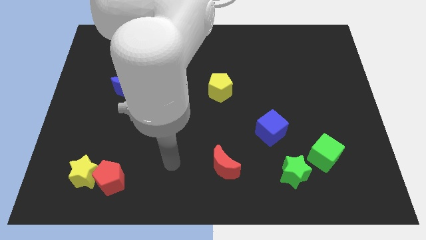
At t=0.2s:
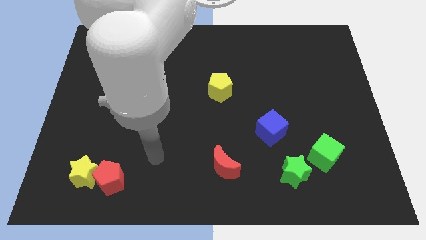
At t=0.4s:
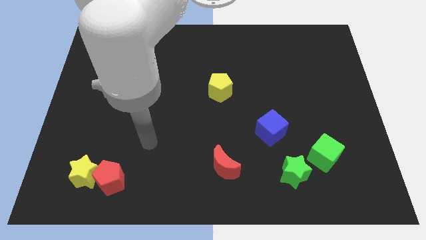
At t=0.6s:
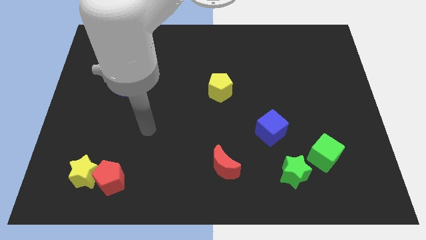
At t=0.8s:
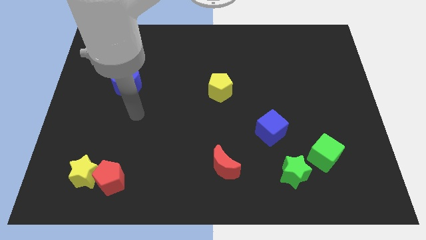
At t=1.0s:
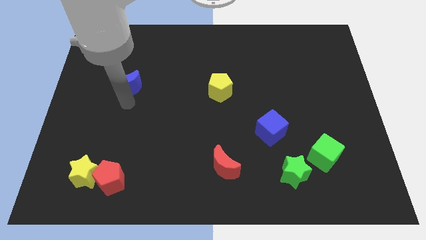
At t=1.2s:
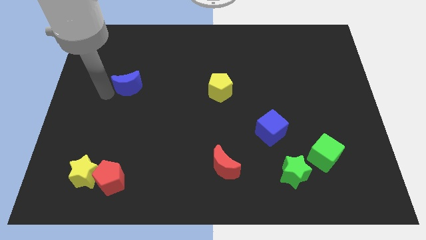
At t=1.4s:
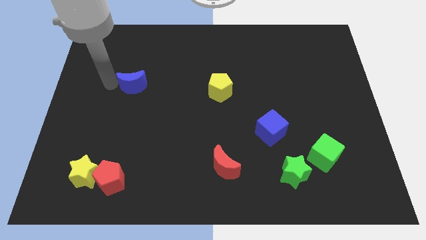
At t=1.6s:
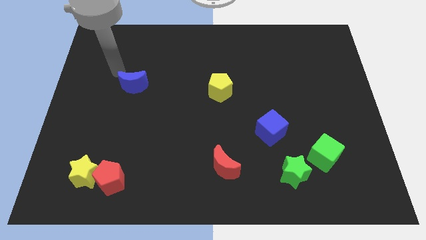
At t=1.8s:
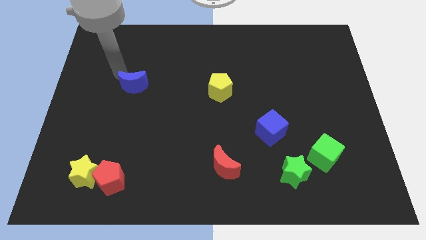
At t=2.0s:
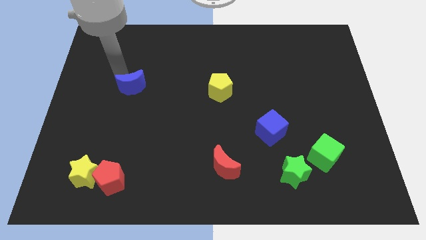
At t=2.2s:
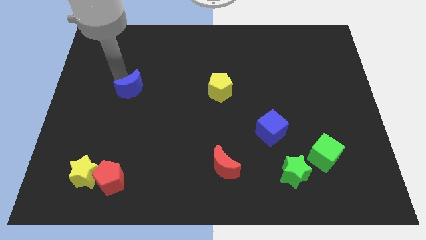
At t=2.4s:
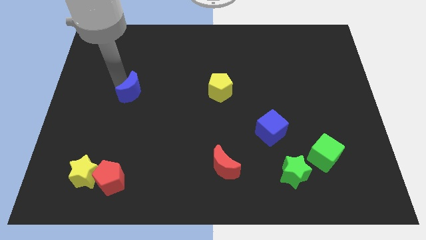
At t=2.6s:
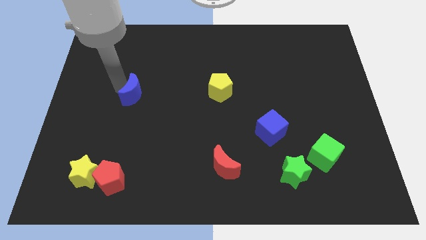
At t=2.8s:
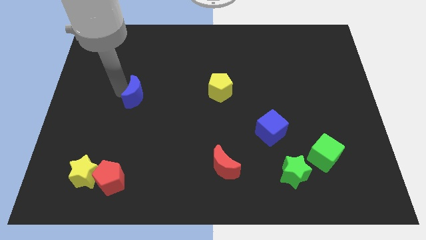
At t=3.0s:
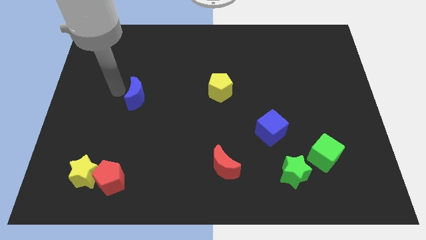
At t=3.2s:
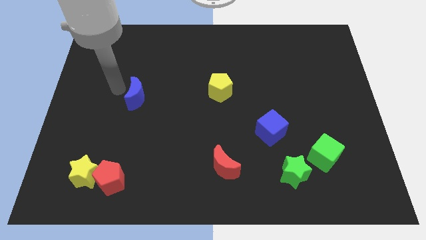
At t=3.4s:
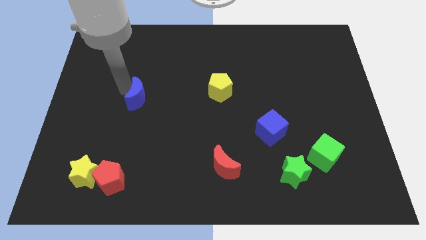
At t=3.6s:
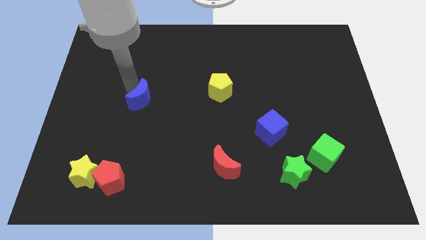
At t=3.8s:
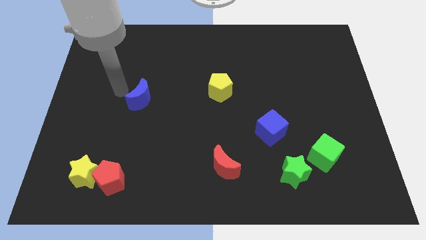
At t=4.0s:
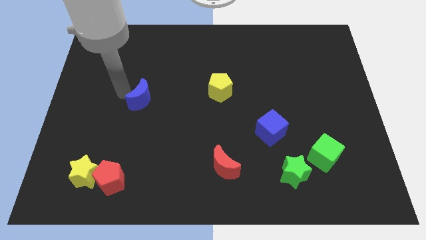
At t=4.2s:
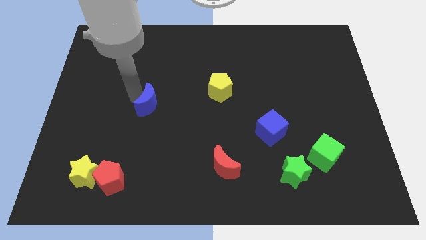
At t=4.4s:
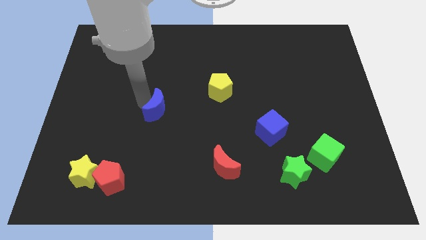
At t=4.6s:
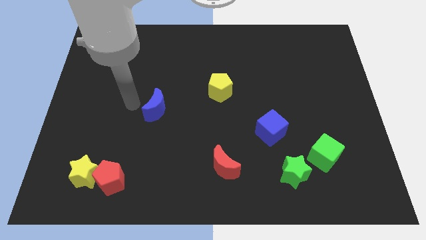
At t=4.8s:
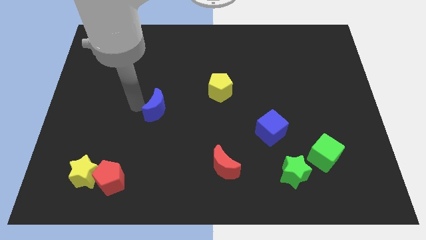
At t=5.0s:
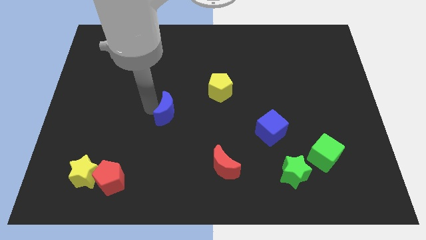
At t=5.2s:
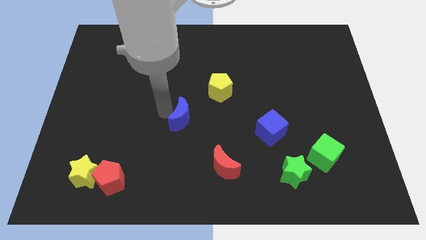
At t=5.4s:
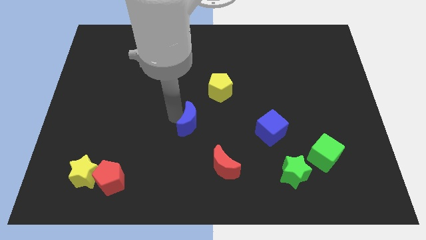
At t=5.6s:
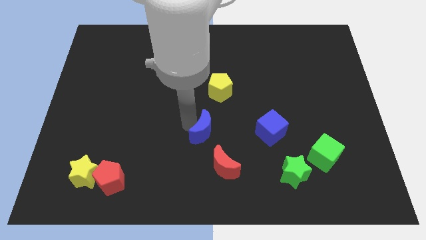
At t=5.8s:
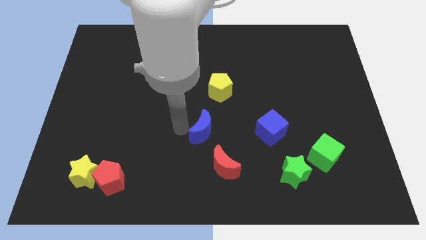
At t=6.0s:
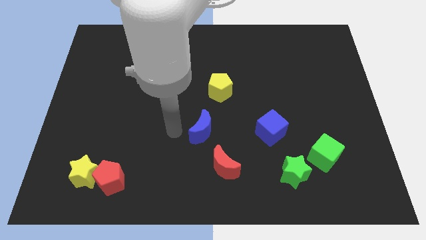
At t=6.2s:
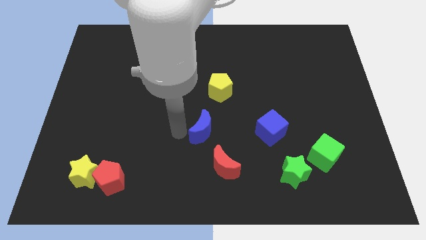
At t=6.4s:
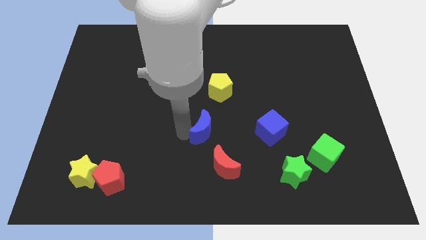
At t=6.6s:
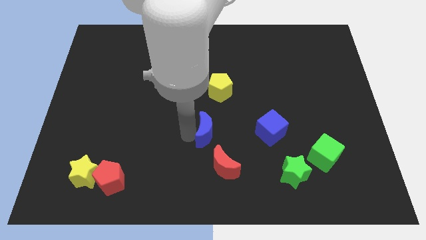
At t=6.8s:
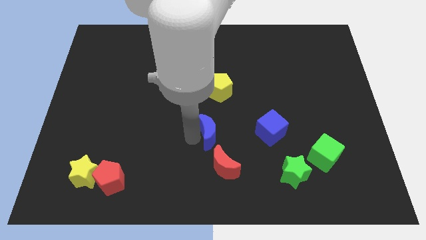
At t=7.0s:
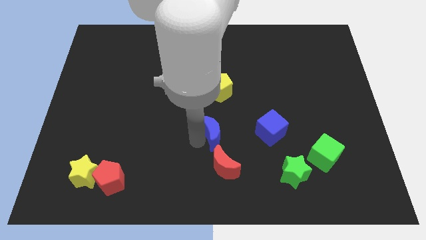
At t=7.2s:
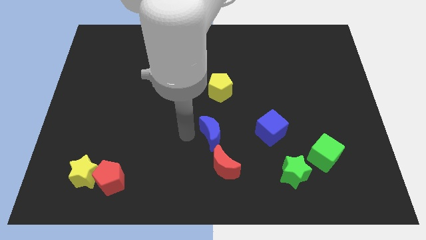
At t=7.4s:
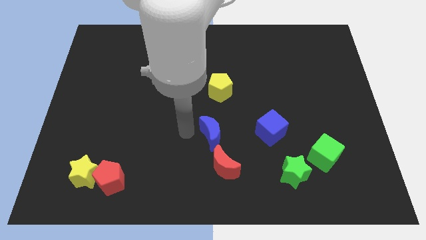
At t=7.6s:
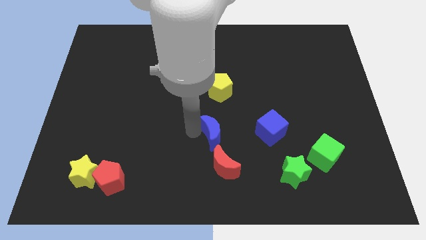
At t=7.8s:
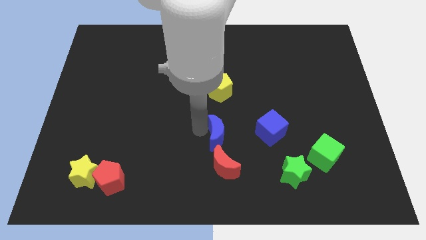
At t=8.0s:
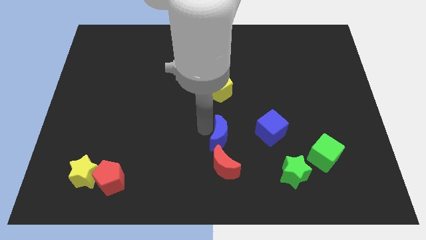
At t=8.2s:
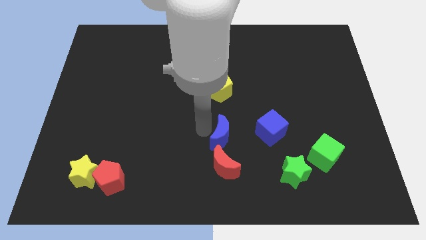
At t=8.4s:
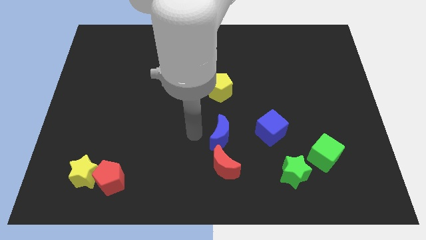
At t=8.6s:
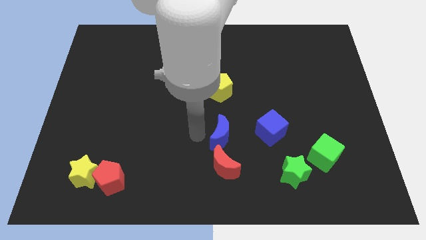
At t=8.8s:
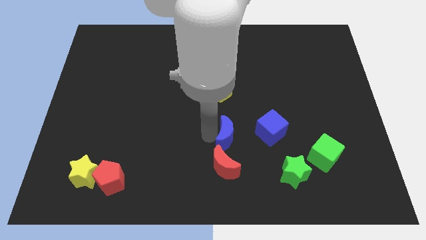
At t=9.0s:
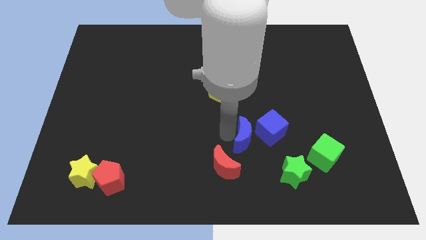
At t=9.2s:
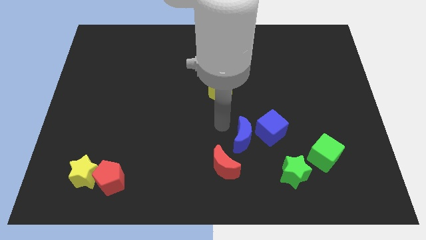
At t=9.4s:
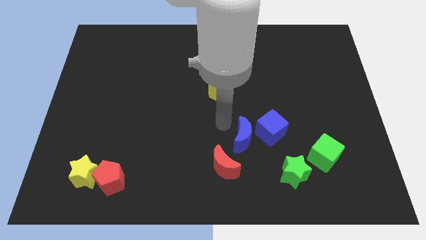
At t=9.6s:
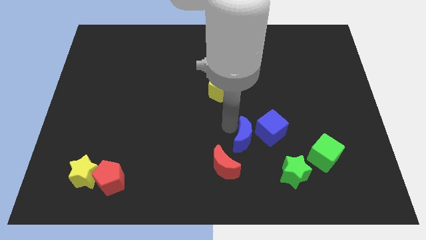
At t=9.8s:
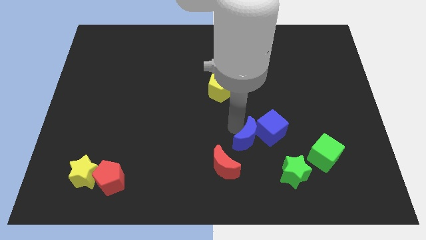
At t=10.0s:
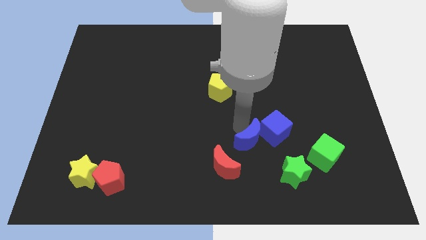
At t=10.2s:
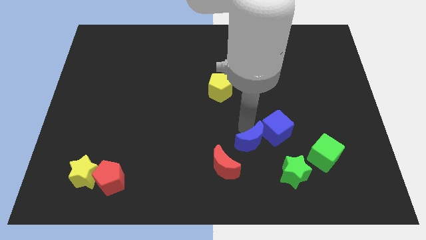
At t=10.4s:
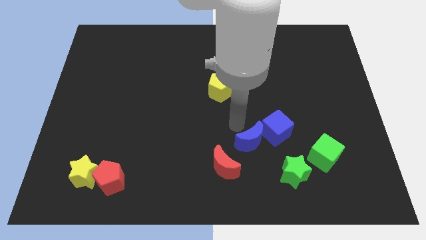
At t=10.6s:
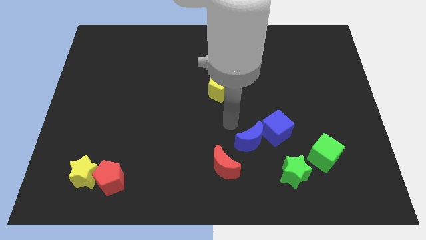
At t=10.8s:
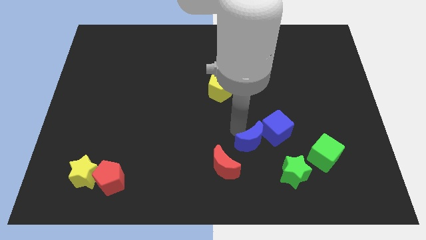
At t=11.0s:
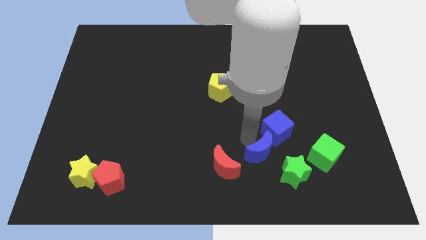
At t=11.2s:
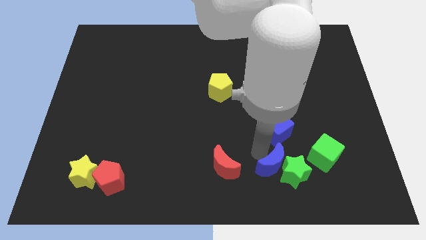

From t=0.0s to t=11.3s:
slide the blue moon towards the green star

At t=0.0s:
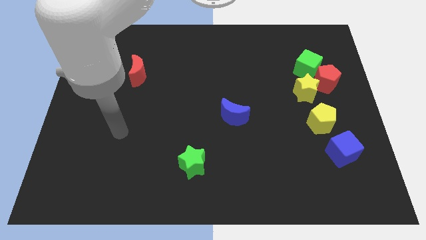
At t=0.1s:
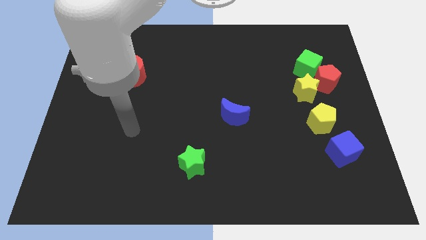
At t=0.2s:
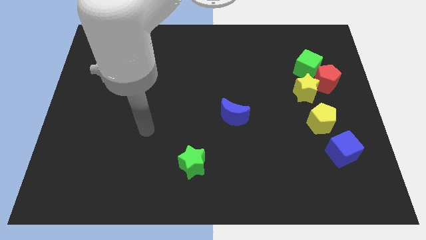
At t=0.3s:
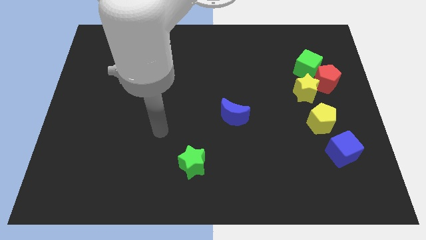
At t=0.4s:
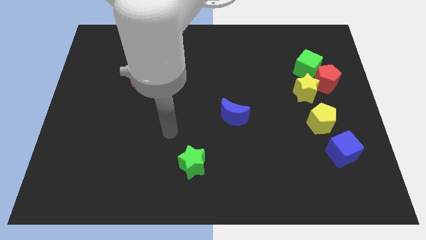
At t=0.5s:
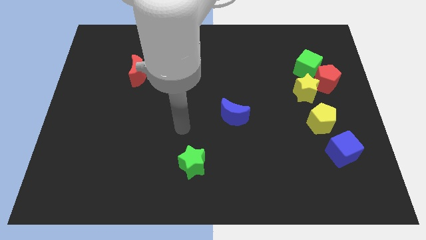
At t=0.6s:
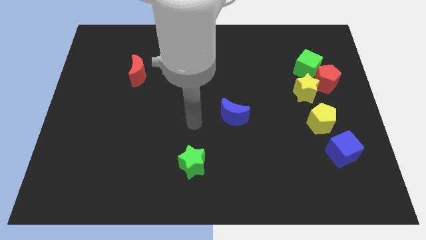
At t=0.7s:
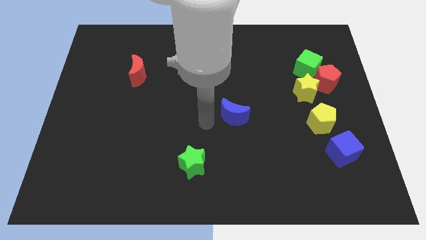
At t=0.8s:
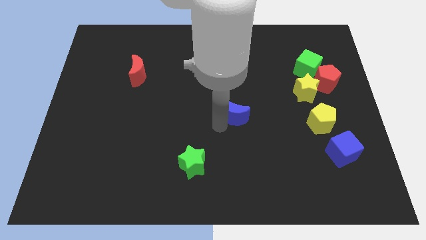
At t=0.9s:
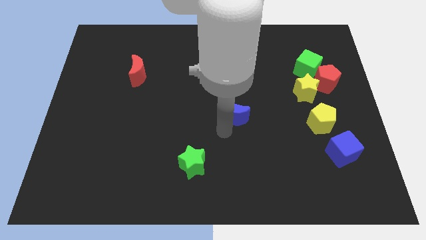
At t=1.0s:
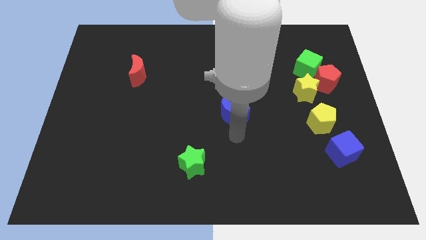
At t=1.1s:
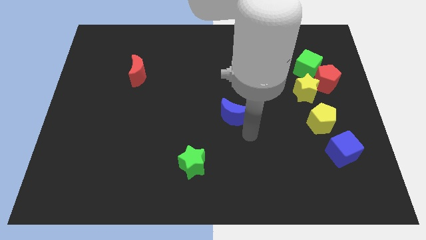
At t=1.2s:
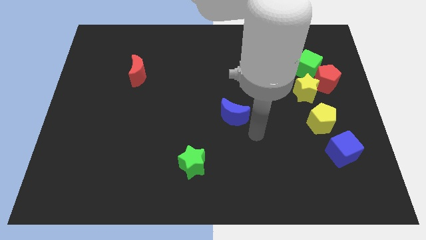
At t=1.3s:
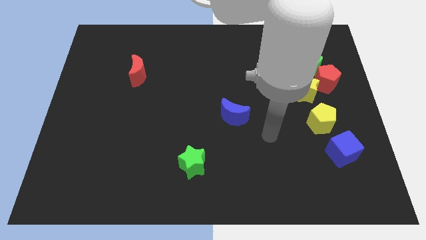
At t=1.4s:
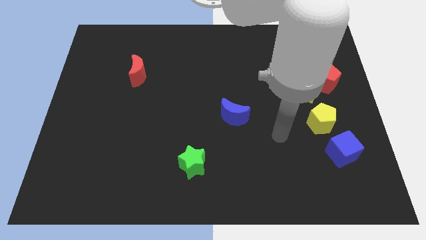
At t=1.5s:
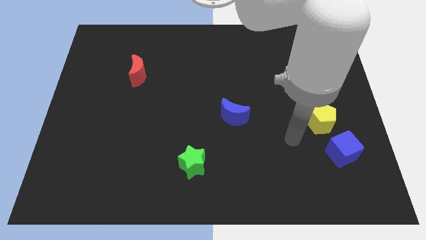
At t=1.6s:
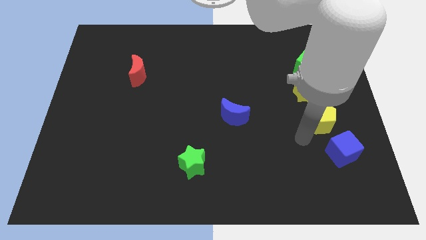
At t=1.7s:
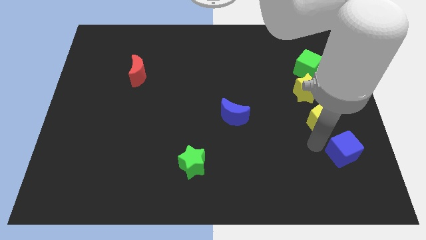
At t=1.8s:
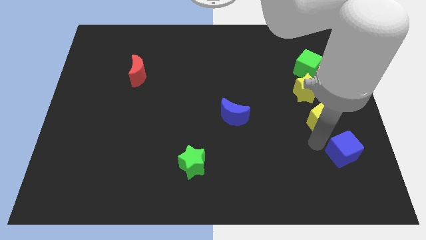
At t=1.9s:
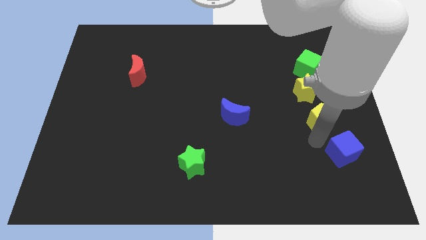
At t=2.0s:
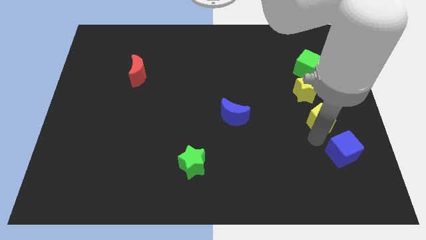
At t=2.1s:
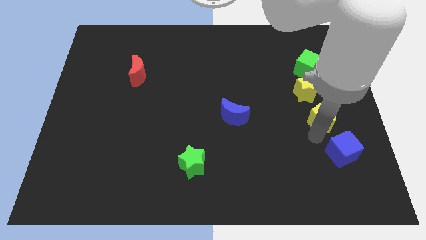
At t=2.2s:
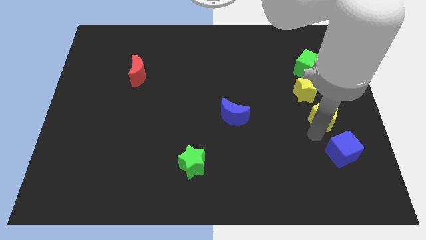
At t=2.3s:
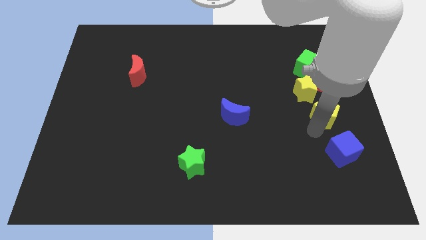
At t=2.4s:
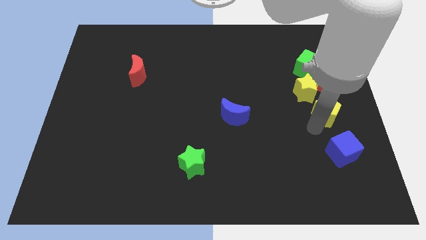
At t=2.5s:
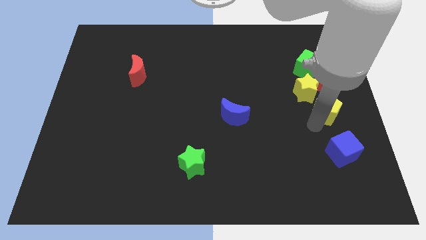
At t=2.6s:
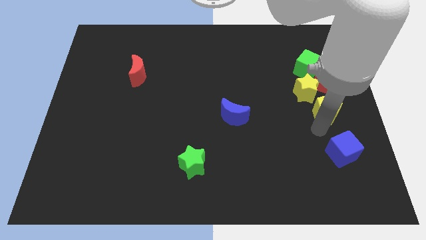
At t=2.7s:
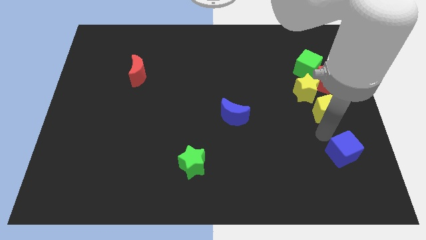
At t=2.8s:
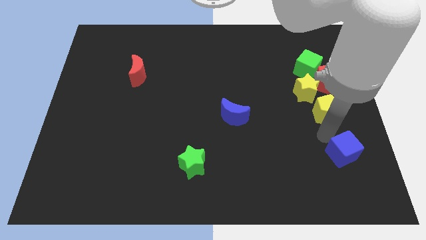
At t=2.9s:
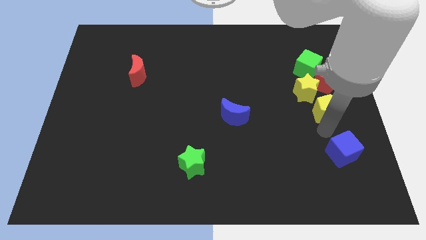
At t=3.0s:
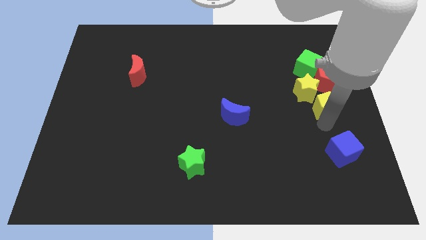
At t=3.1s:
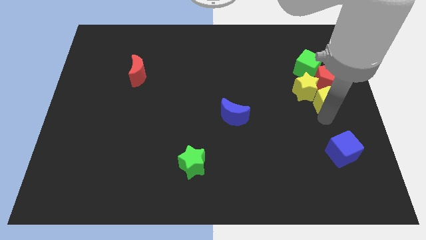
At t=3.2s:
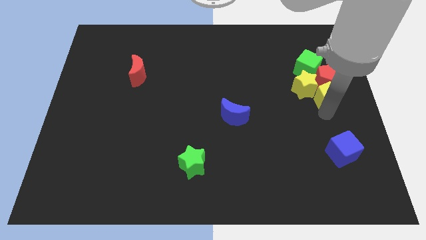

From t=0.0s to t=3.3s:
put the yellow pentagon towards the red pentagon
